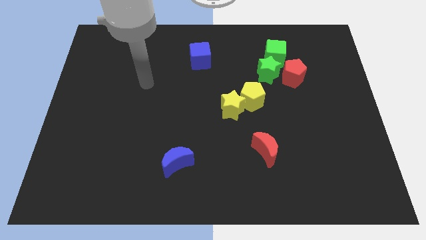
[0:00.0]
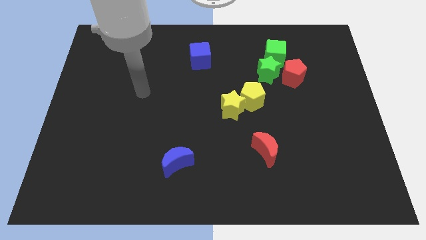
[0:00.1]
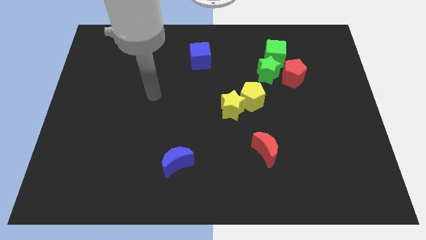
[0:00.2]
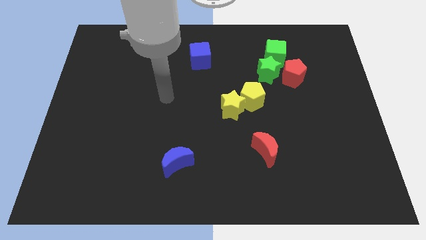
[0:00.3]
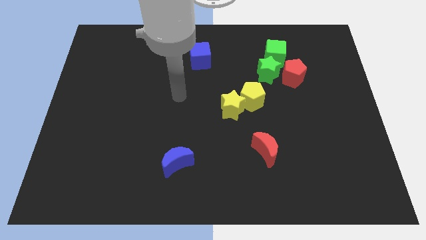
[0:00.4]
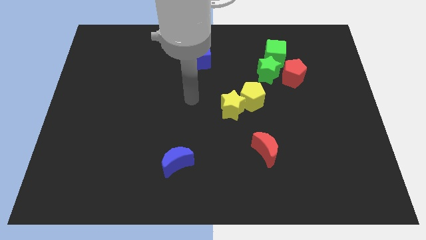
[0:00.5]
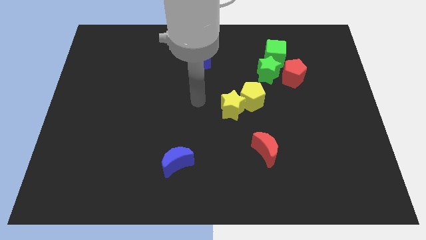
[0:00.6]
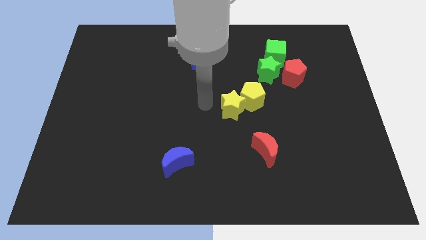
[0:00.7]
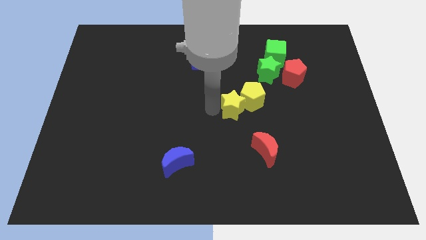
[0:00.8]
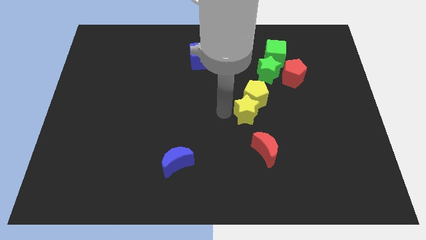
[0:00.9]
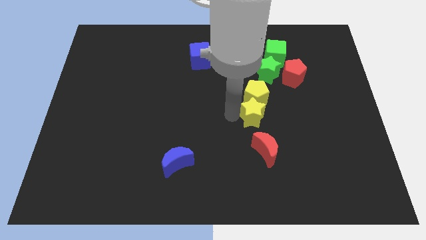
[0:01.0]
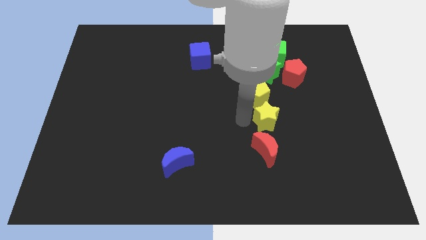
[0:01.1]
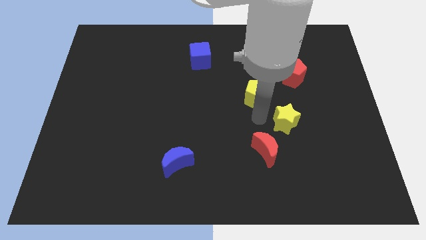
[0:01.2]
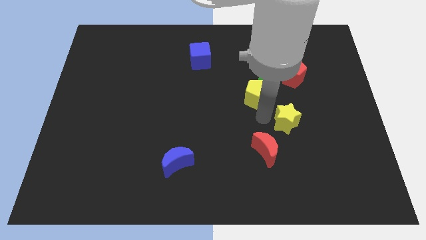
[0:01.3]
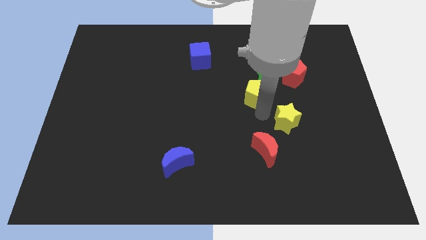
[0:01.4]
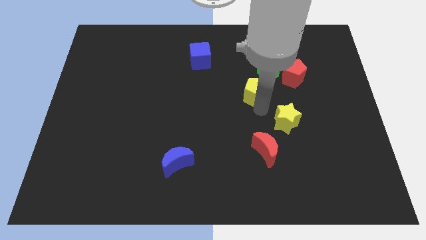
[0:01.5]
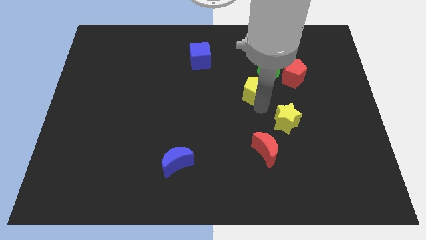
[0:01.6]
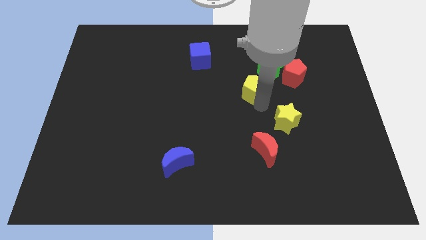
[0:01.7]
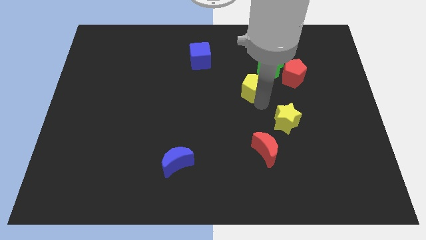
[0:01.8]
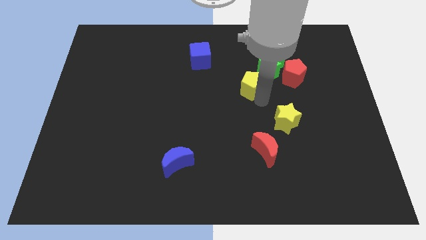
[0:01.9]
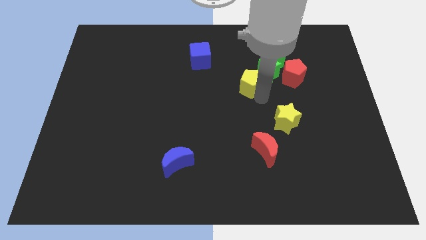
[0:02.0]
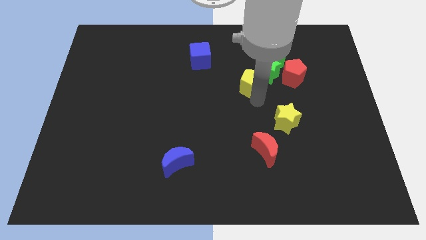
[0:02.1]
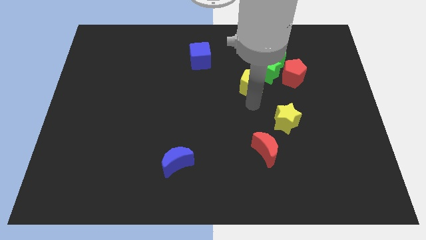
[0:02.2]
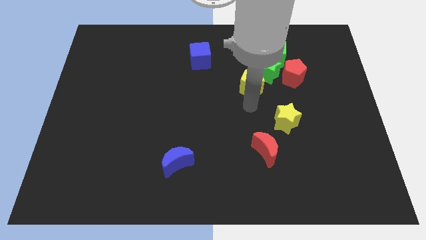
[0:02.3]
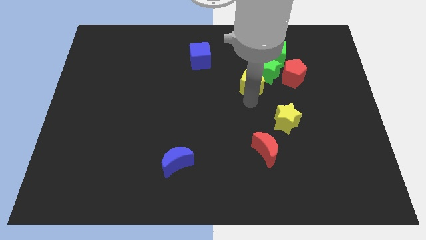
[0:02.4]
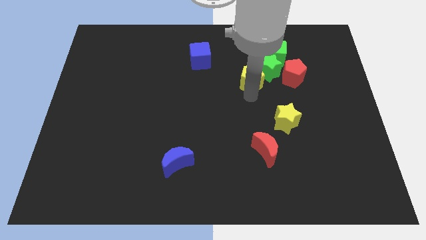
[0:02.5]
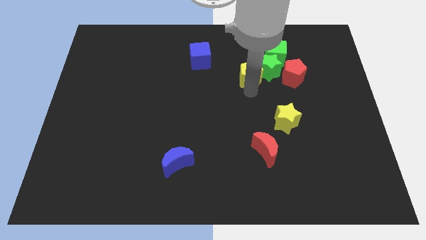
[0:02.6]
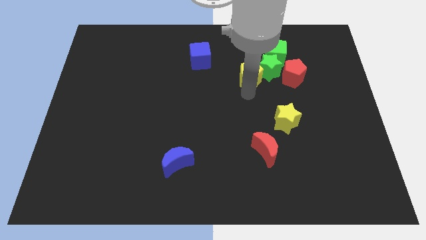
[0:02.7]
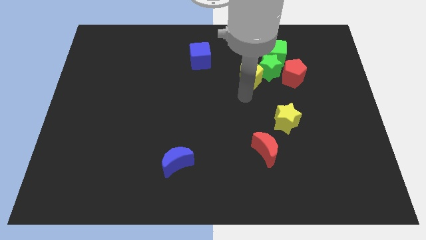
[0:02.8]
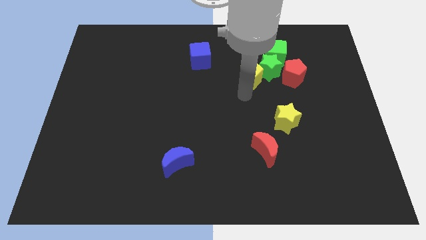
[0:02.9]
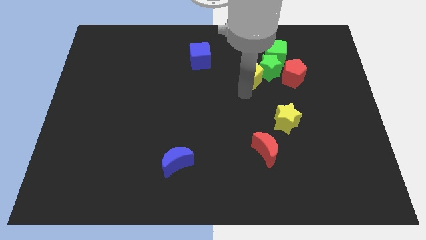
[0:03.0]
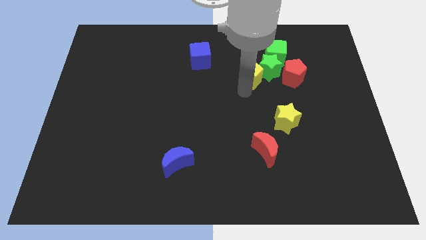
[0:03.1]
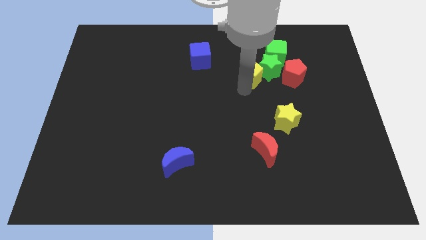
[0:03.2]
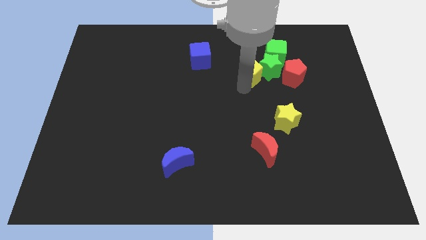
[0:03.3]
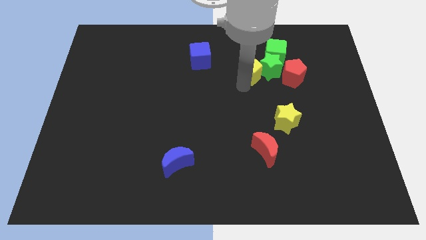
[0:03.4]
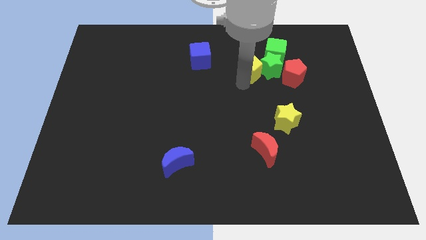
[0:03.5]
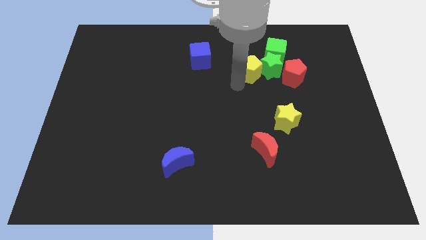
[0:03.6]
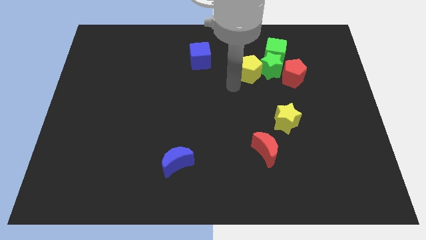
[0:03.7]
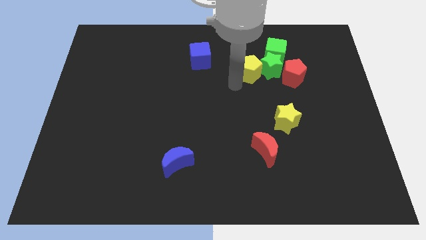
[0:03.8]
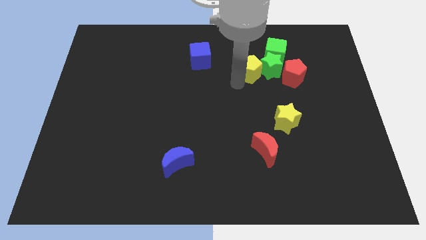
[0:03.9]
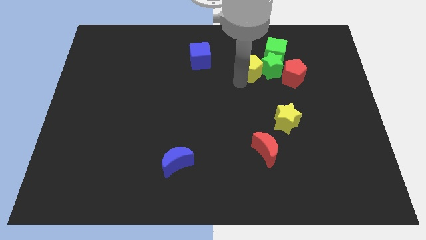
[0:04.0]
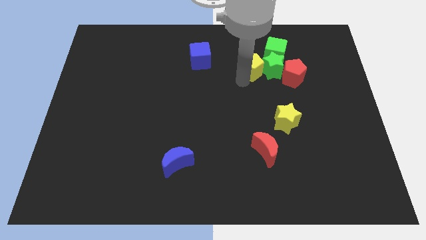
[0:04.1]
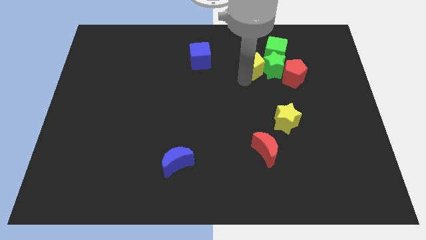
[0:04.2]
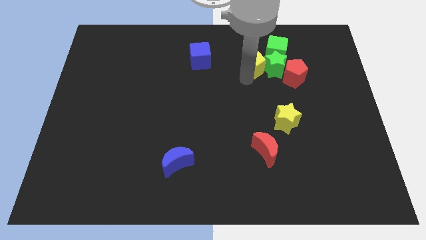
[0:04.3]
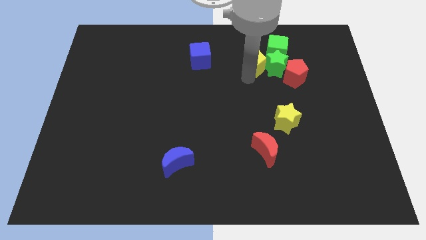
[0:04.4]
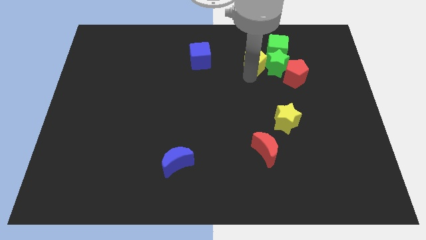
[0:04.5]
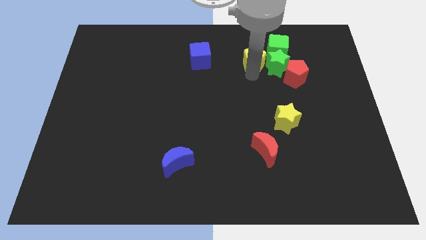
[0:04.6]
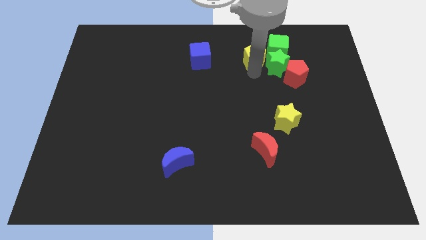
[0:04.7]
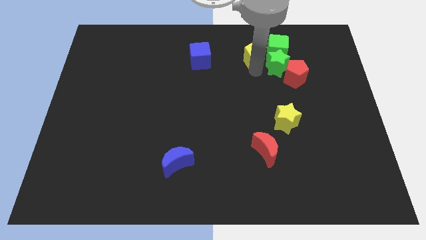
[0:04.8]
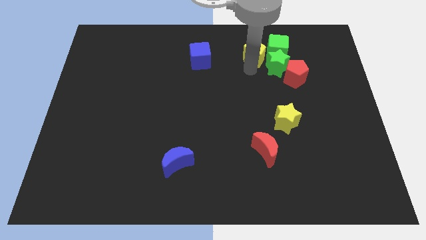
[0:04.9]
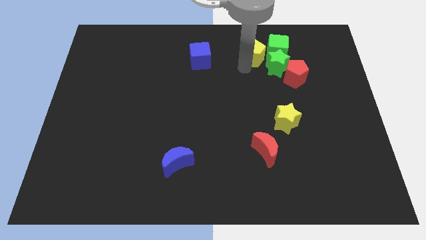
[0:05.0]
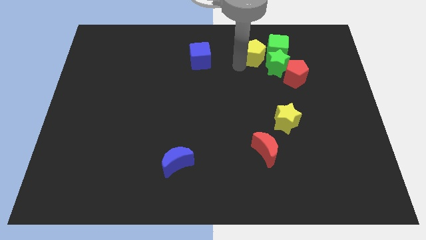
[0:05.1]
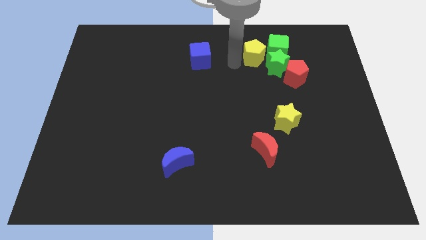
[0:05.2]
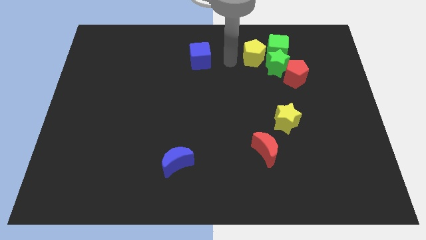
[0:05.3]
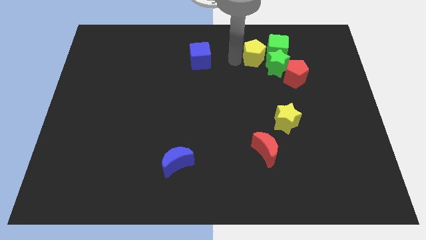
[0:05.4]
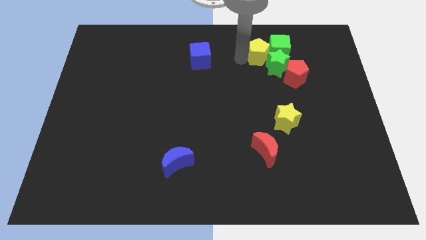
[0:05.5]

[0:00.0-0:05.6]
move the yellow pentagon to the green cube

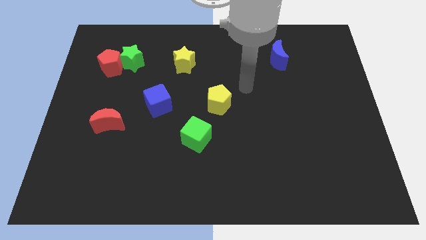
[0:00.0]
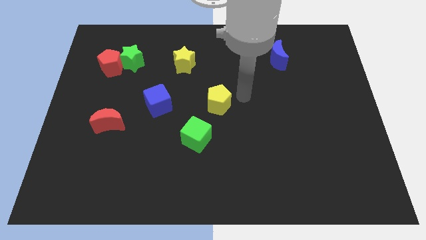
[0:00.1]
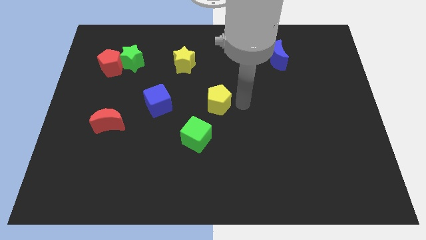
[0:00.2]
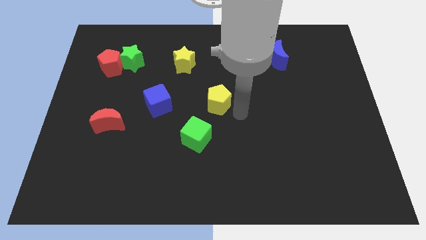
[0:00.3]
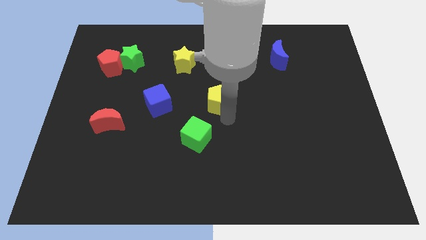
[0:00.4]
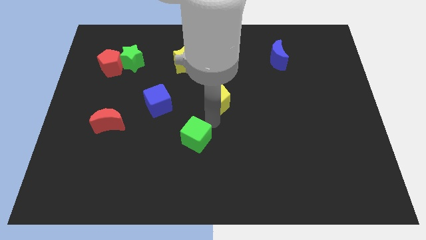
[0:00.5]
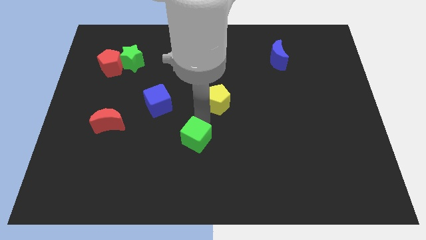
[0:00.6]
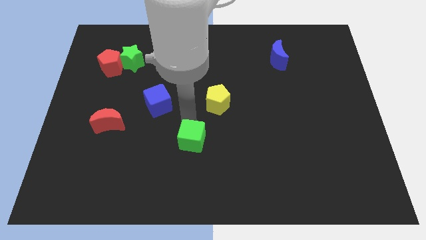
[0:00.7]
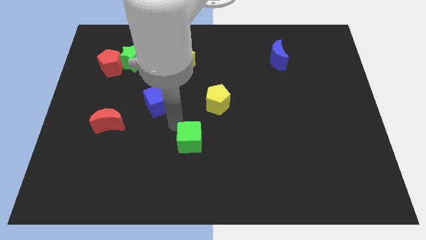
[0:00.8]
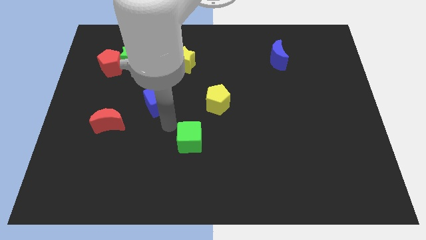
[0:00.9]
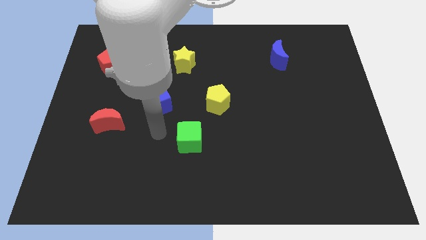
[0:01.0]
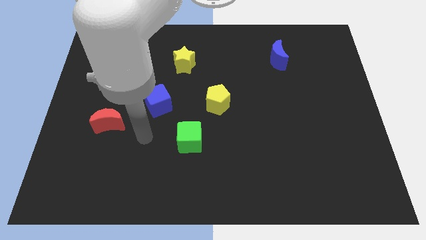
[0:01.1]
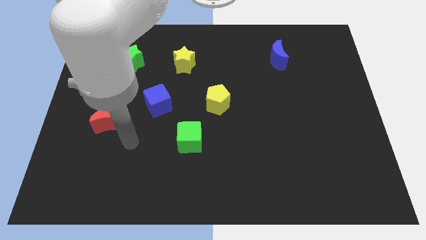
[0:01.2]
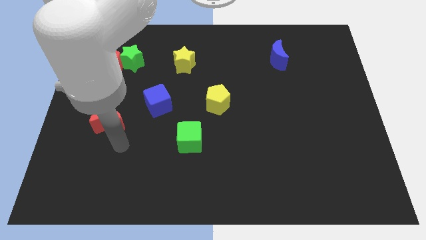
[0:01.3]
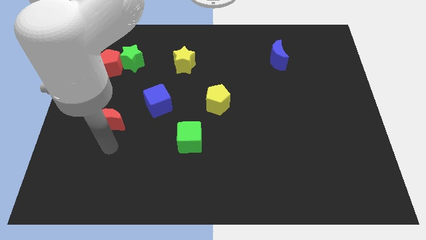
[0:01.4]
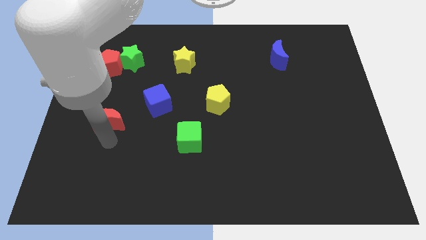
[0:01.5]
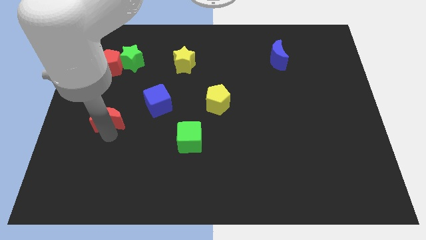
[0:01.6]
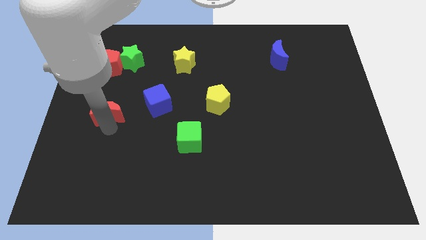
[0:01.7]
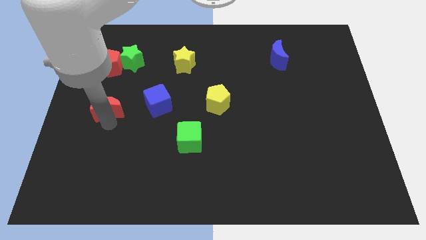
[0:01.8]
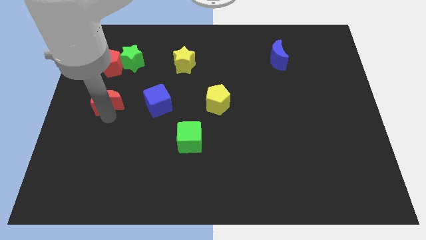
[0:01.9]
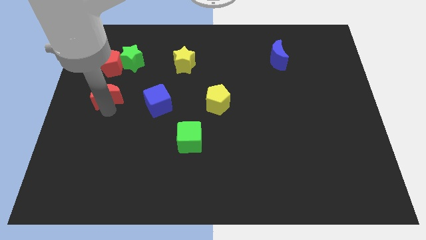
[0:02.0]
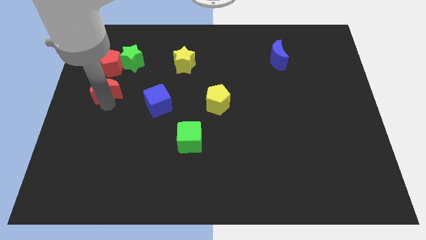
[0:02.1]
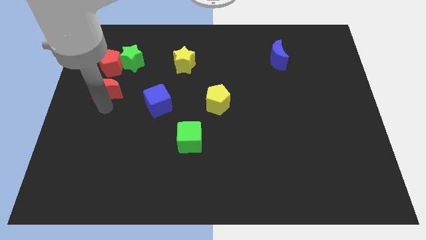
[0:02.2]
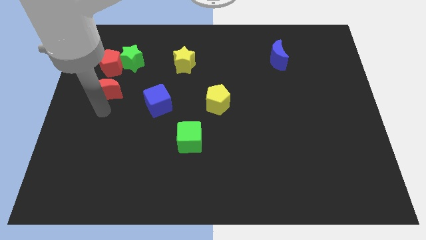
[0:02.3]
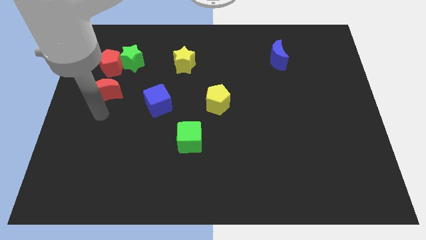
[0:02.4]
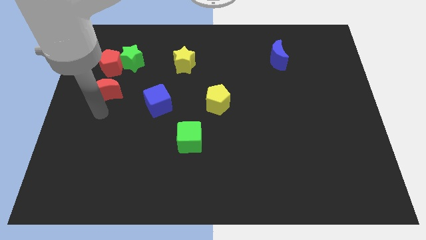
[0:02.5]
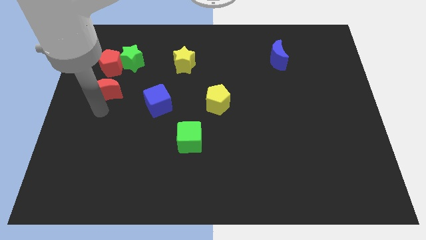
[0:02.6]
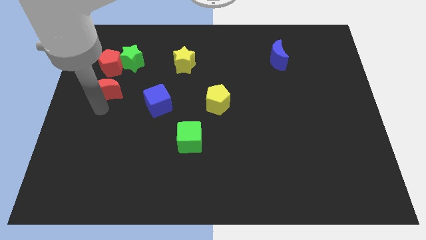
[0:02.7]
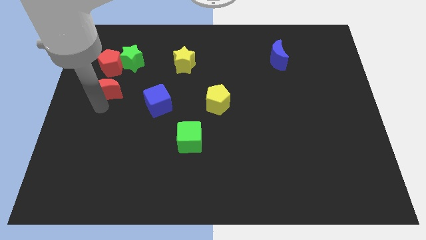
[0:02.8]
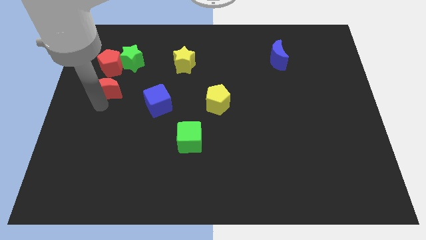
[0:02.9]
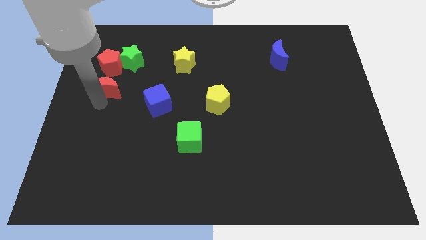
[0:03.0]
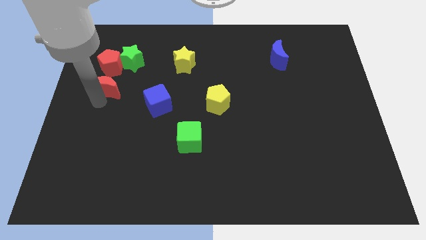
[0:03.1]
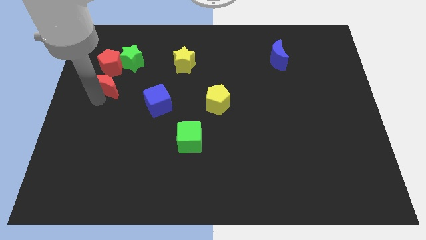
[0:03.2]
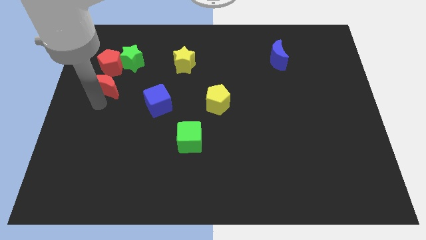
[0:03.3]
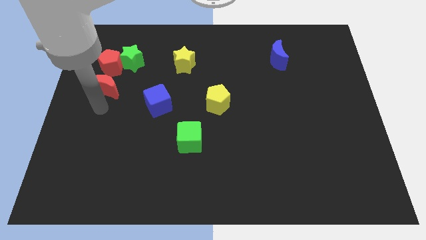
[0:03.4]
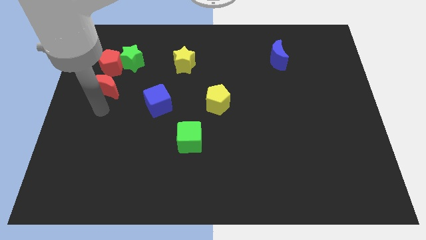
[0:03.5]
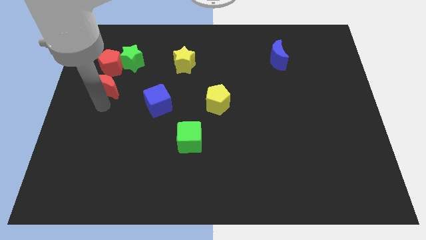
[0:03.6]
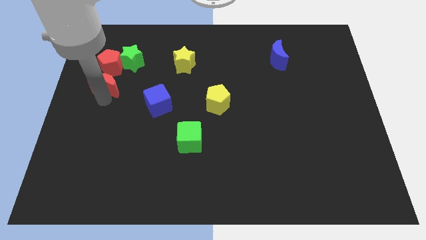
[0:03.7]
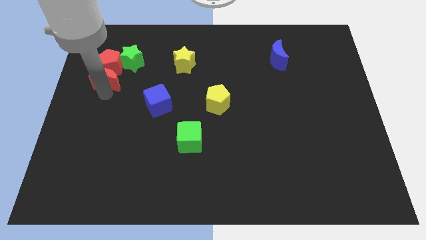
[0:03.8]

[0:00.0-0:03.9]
put the red moon close to the red pentagon
